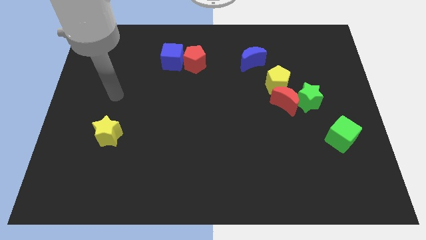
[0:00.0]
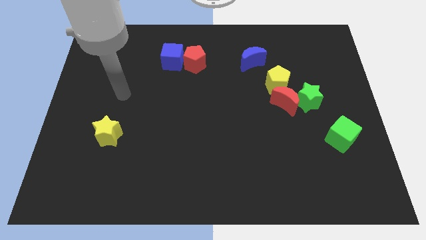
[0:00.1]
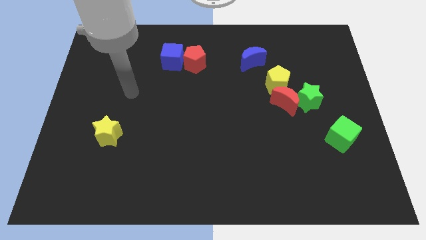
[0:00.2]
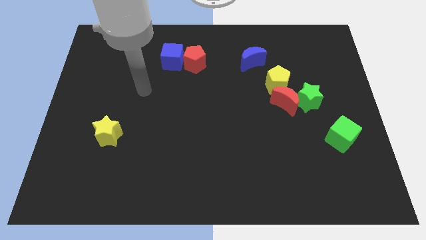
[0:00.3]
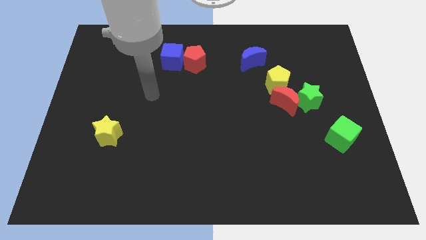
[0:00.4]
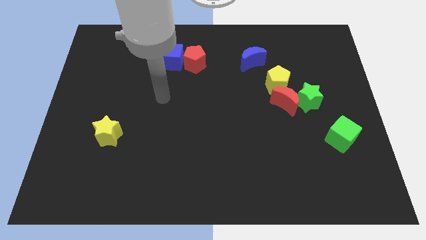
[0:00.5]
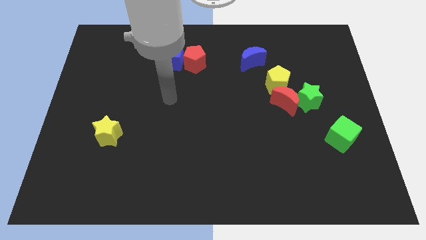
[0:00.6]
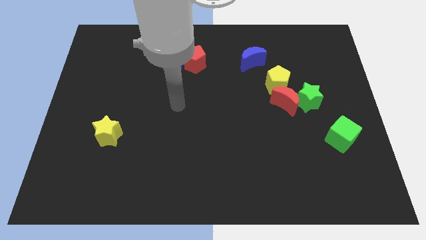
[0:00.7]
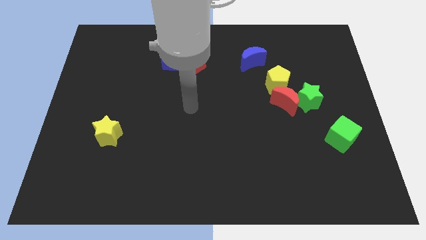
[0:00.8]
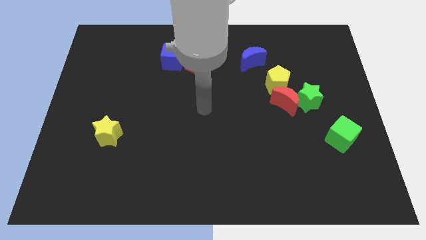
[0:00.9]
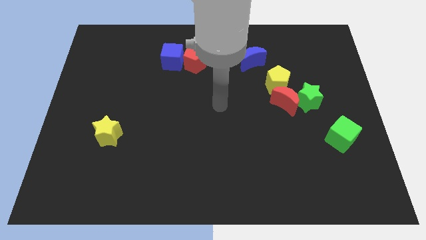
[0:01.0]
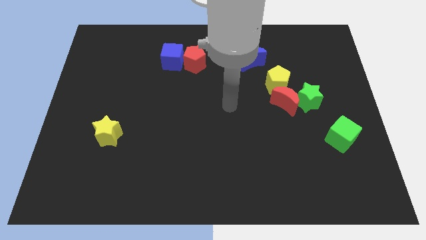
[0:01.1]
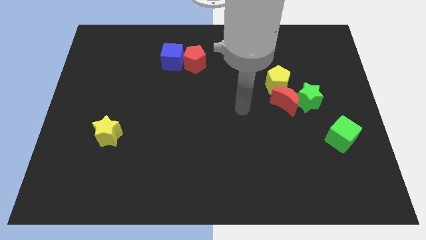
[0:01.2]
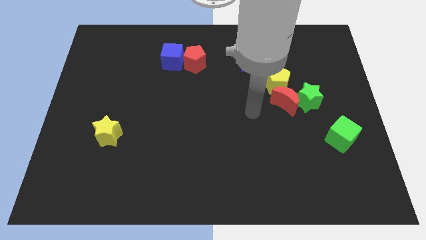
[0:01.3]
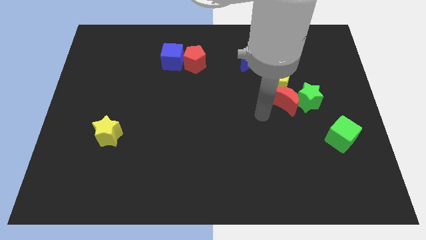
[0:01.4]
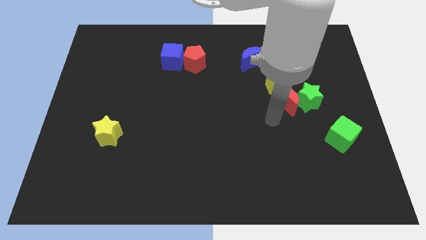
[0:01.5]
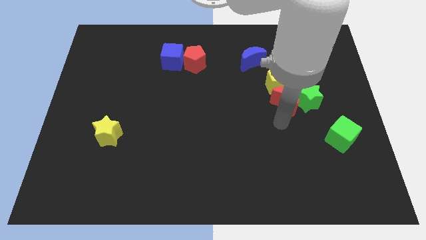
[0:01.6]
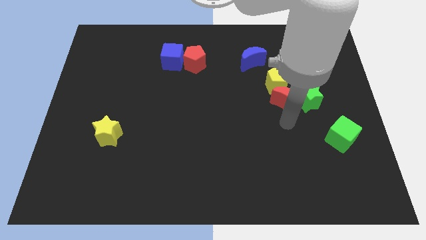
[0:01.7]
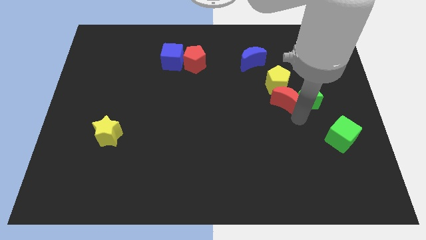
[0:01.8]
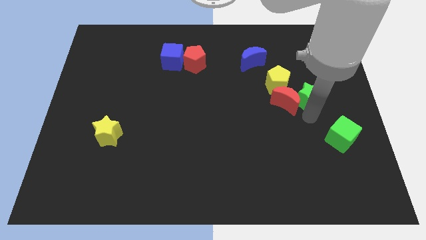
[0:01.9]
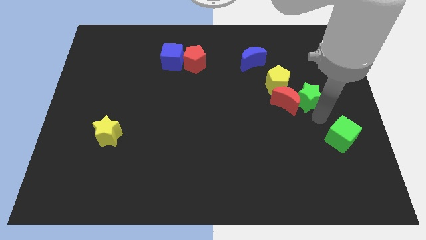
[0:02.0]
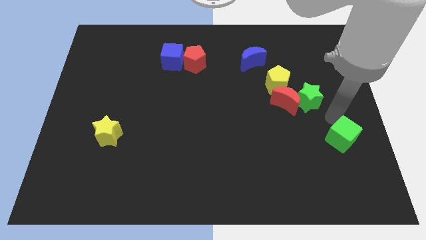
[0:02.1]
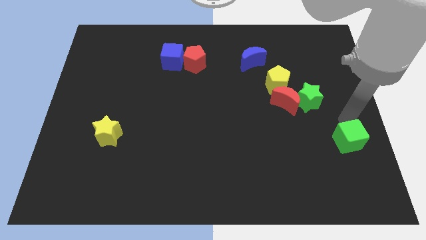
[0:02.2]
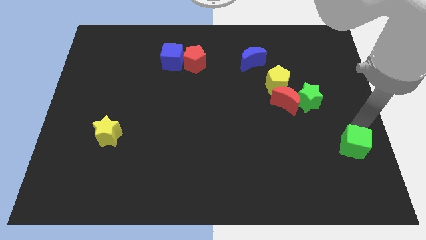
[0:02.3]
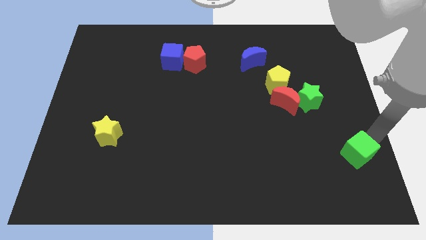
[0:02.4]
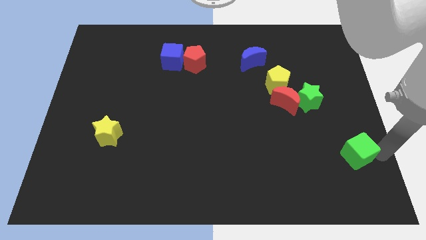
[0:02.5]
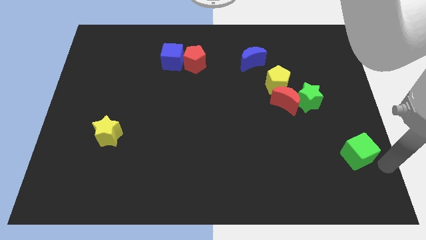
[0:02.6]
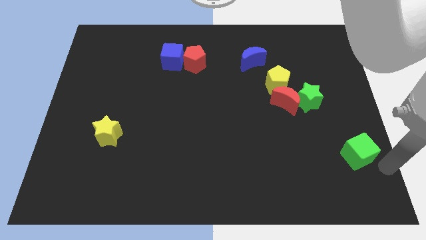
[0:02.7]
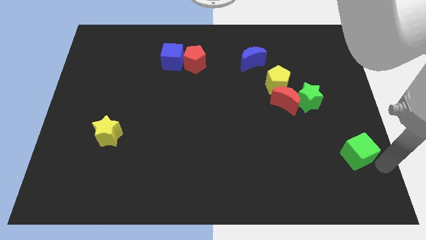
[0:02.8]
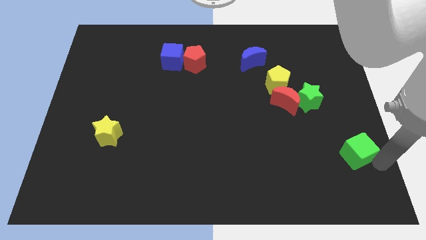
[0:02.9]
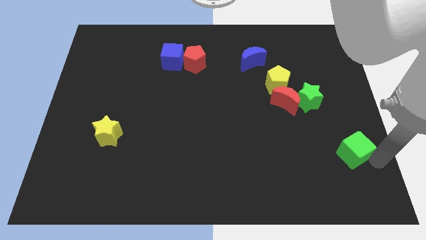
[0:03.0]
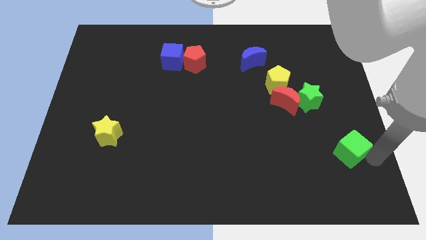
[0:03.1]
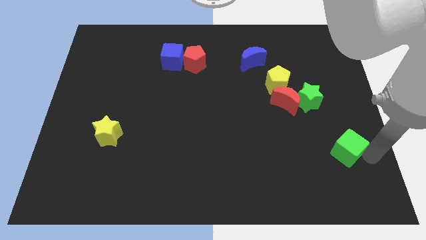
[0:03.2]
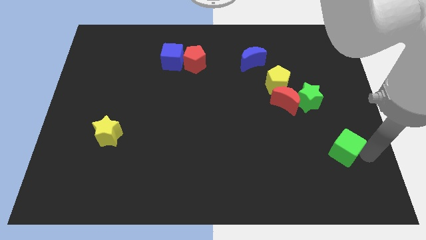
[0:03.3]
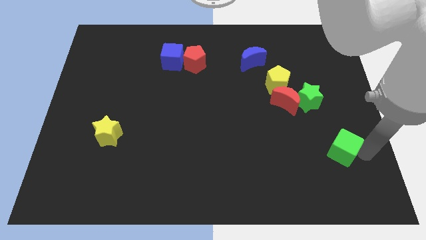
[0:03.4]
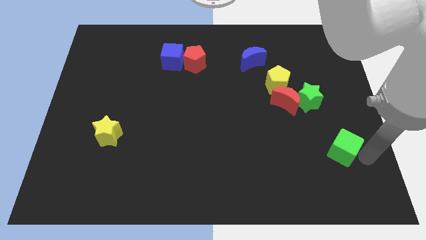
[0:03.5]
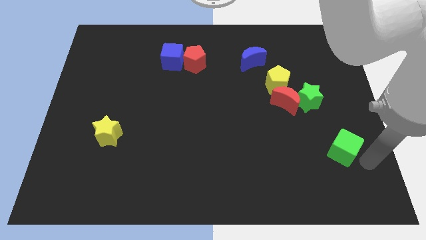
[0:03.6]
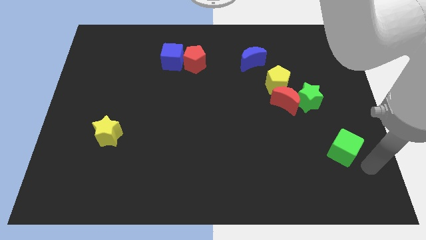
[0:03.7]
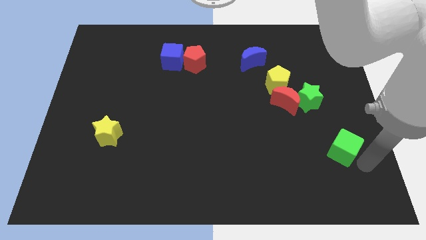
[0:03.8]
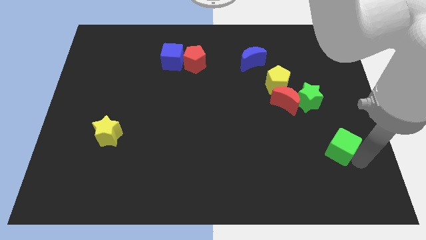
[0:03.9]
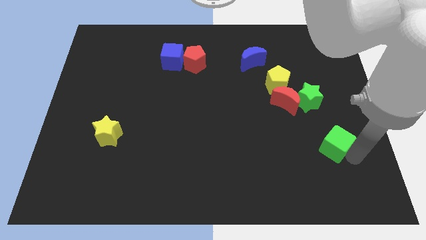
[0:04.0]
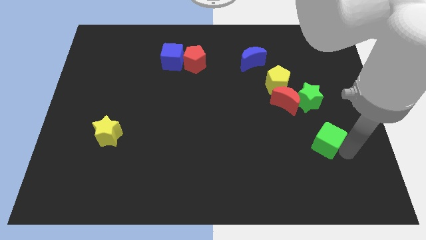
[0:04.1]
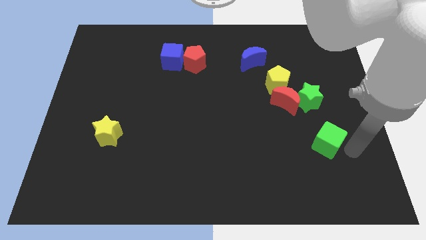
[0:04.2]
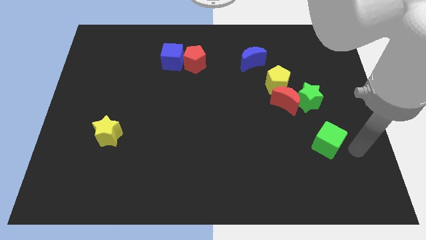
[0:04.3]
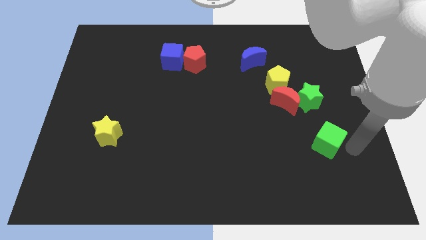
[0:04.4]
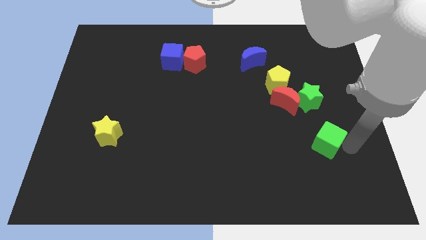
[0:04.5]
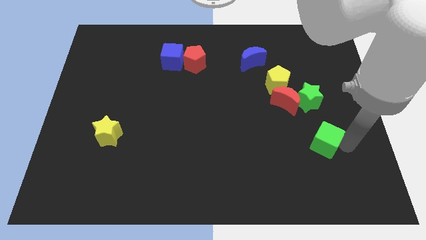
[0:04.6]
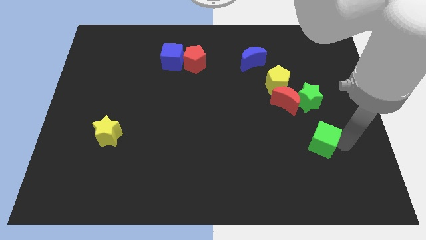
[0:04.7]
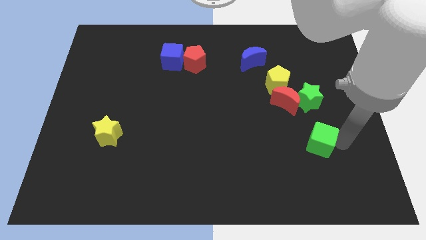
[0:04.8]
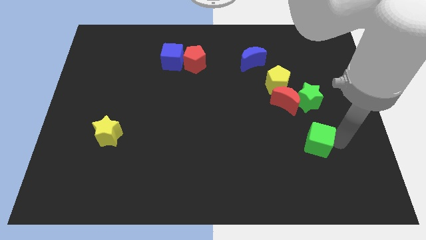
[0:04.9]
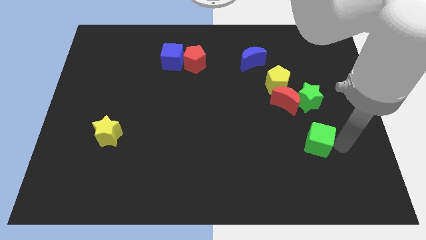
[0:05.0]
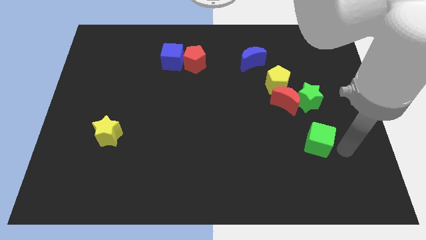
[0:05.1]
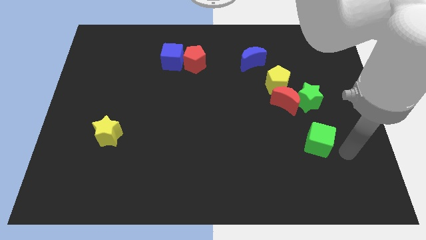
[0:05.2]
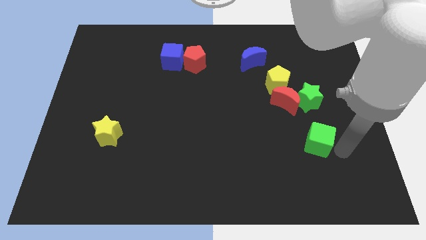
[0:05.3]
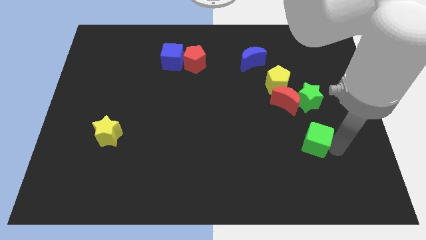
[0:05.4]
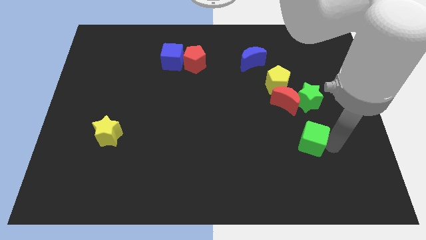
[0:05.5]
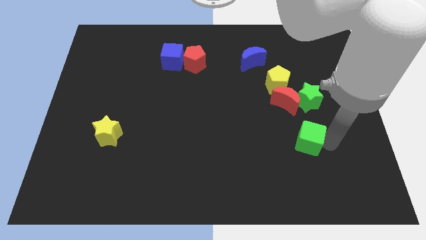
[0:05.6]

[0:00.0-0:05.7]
slightly slide the green cube to the left

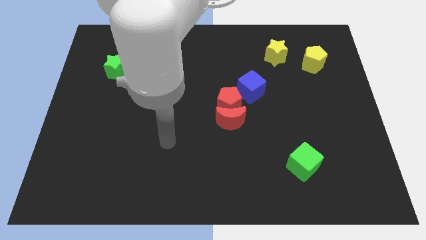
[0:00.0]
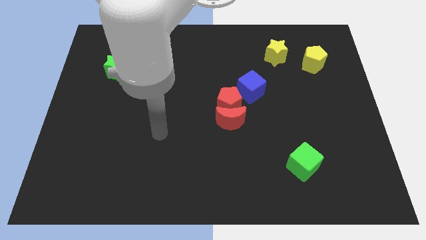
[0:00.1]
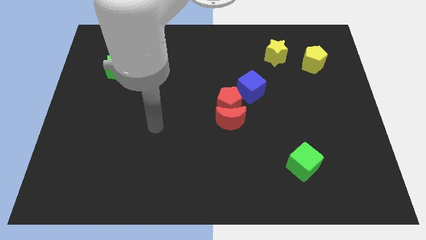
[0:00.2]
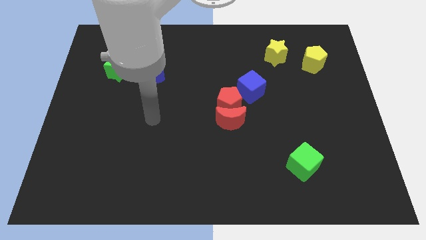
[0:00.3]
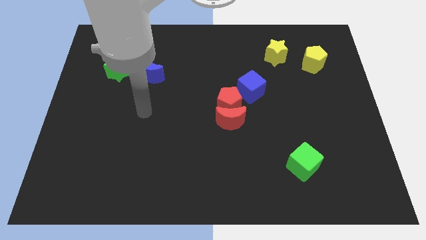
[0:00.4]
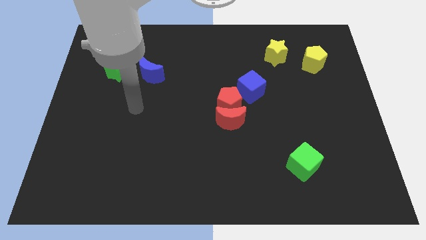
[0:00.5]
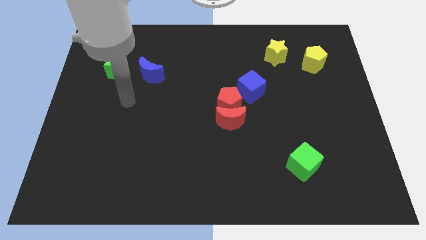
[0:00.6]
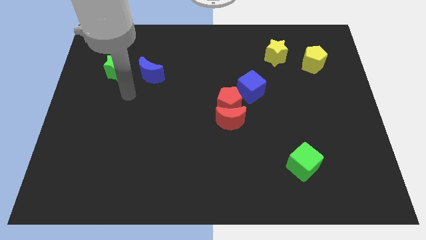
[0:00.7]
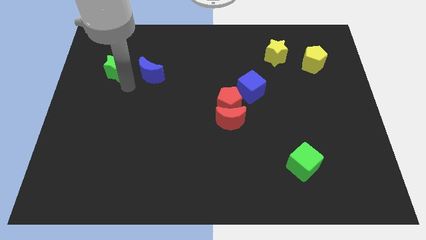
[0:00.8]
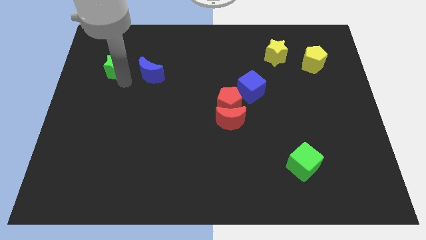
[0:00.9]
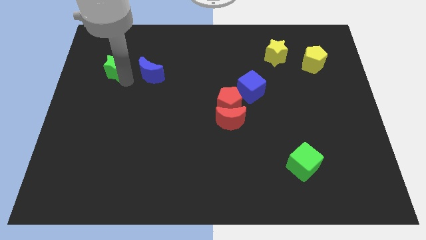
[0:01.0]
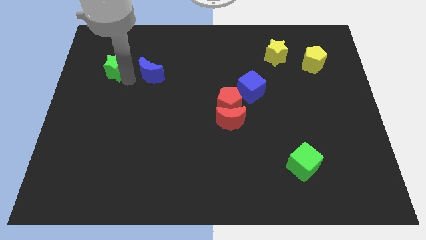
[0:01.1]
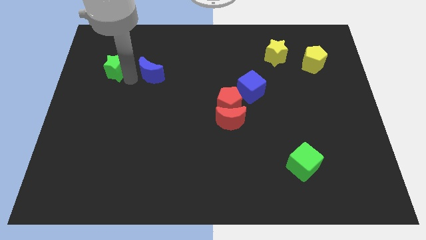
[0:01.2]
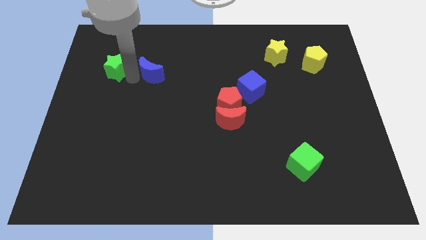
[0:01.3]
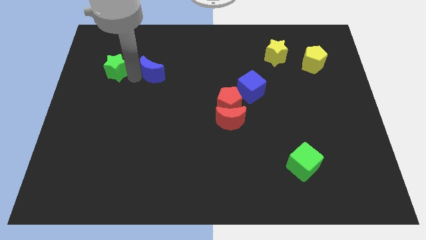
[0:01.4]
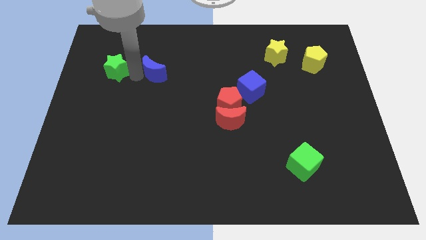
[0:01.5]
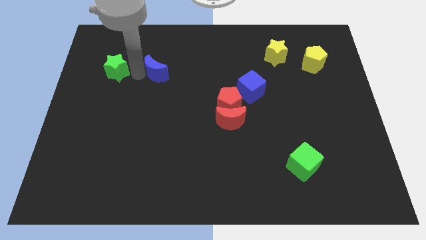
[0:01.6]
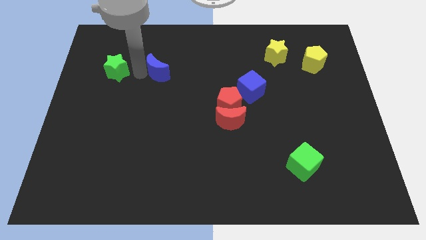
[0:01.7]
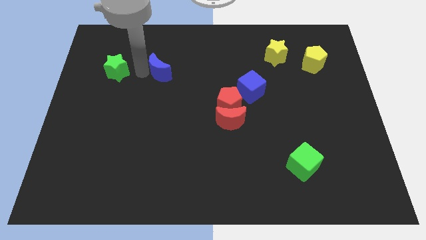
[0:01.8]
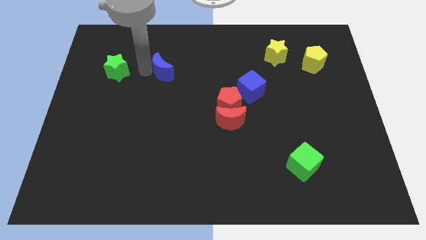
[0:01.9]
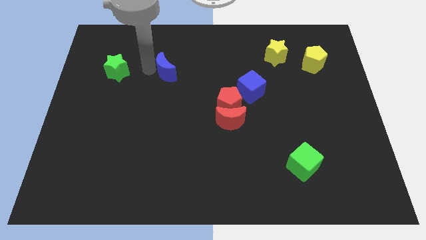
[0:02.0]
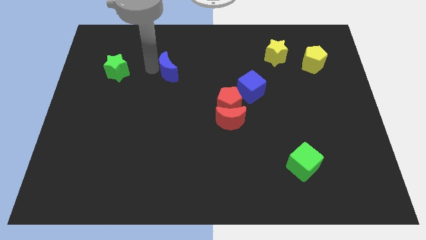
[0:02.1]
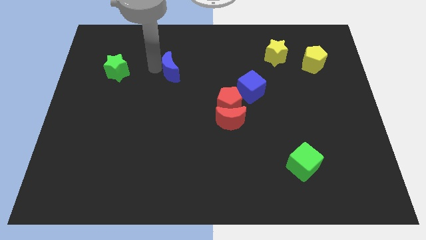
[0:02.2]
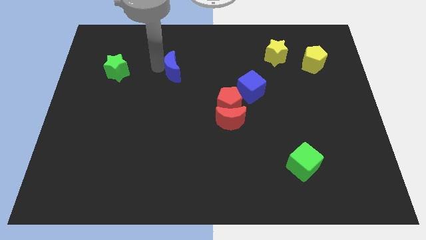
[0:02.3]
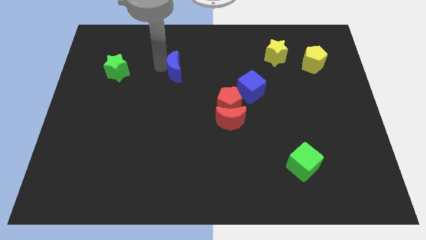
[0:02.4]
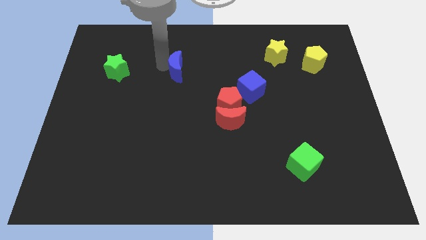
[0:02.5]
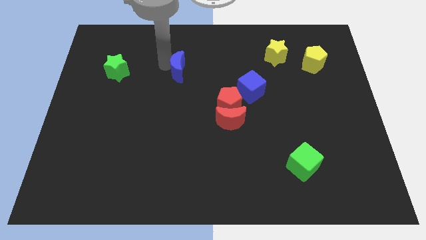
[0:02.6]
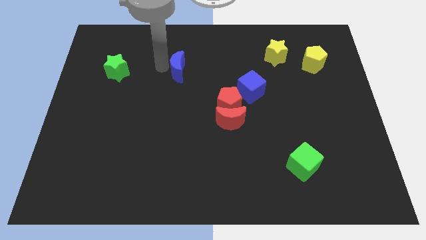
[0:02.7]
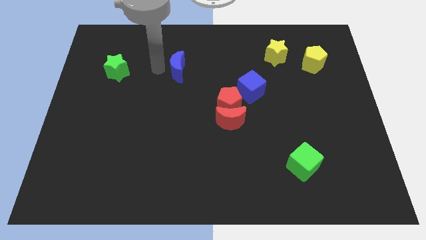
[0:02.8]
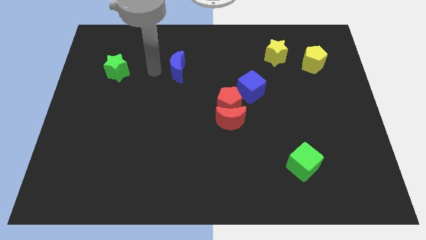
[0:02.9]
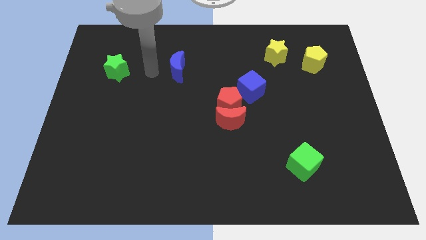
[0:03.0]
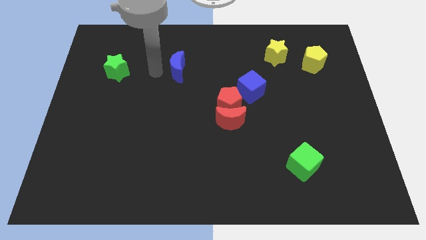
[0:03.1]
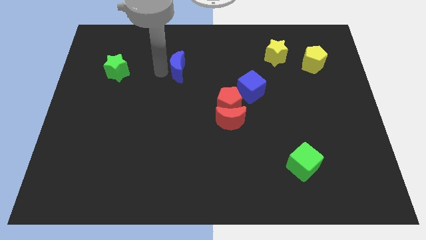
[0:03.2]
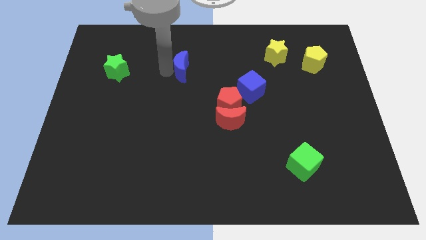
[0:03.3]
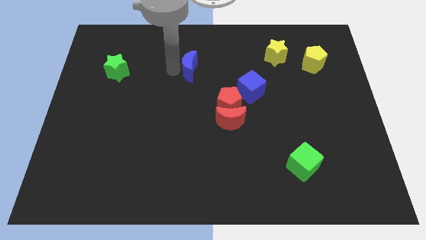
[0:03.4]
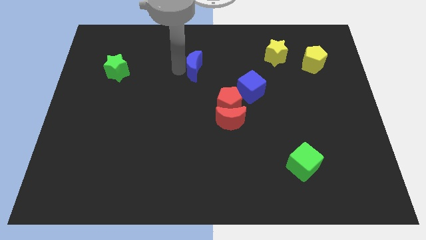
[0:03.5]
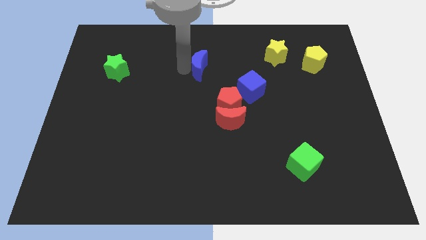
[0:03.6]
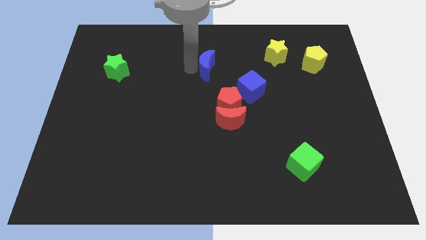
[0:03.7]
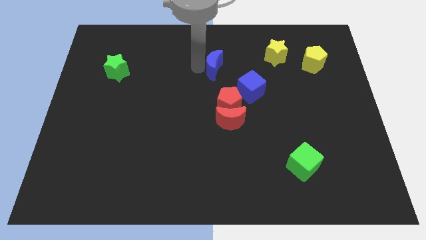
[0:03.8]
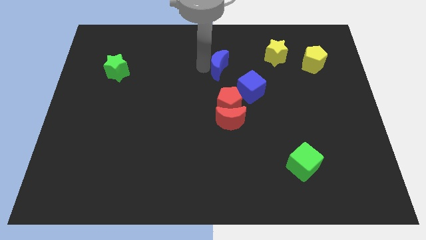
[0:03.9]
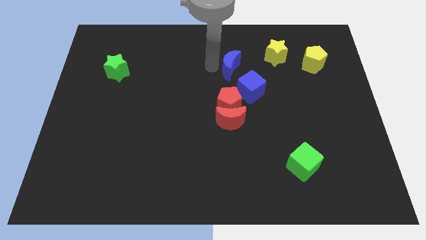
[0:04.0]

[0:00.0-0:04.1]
move the blue moon to the right
